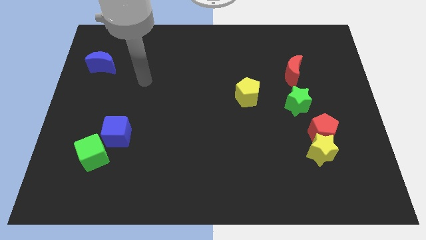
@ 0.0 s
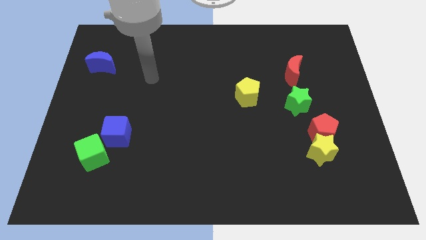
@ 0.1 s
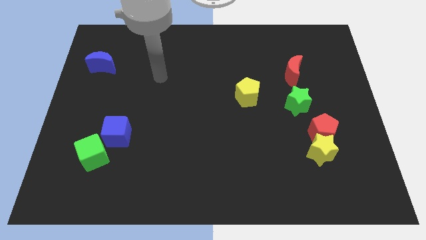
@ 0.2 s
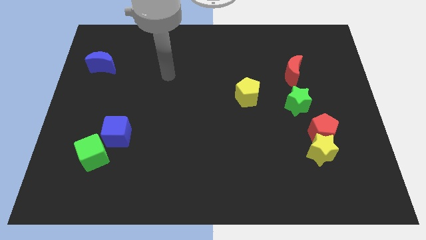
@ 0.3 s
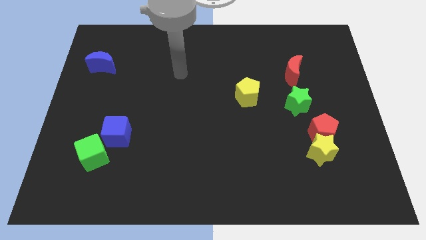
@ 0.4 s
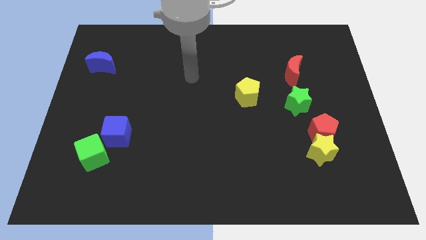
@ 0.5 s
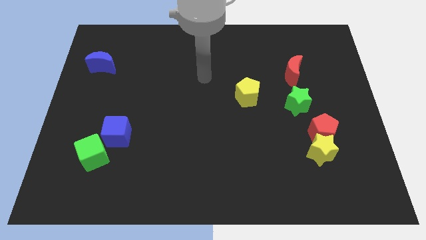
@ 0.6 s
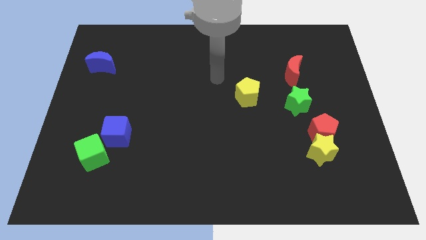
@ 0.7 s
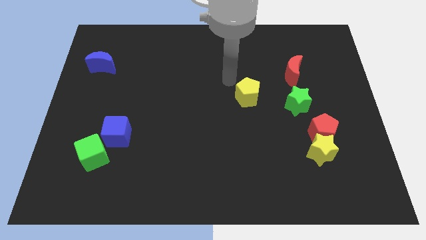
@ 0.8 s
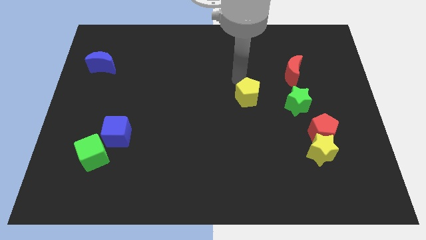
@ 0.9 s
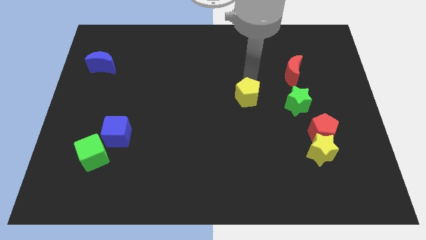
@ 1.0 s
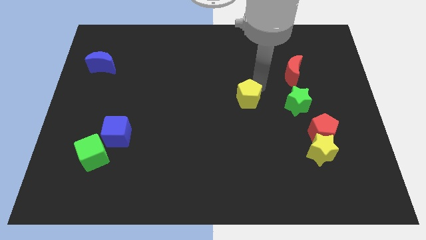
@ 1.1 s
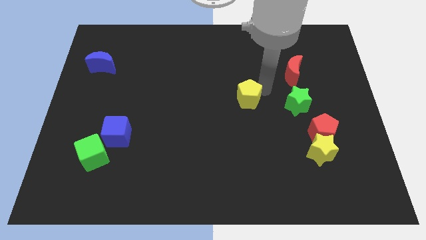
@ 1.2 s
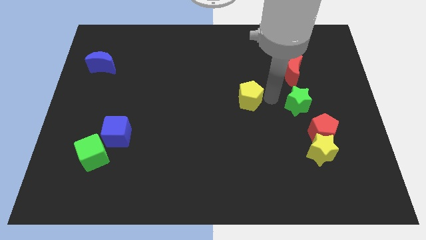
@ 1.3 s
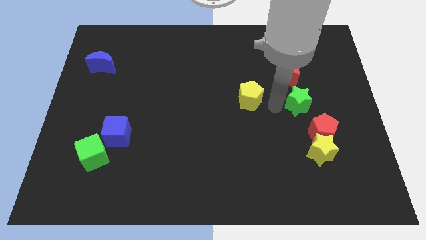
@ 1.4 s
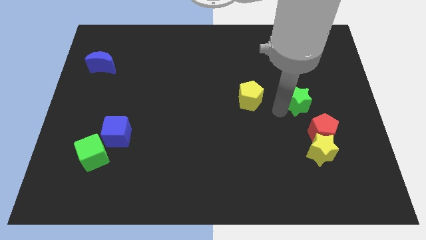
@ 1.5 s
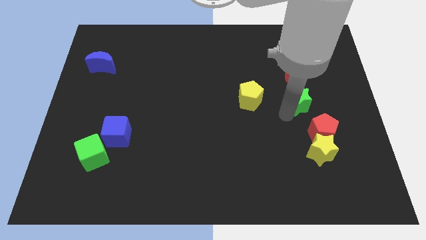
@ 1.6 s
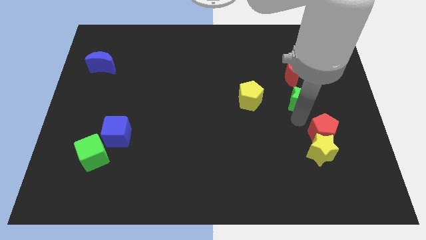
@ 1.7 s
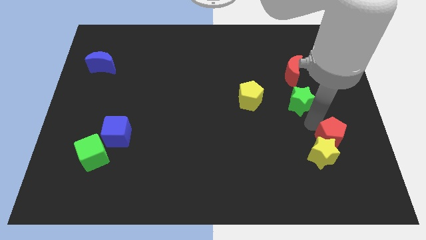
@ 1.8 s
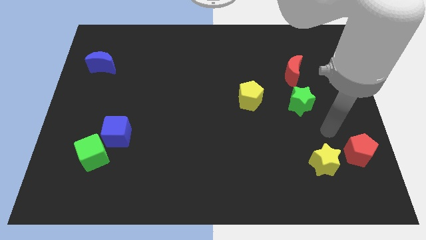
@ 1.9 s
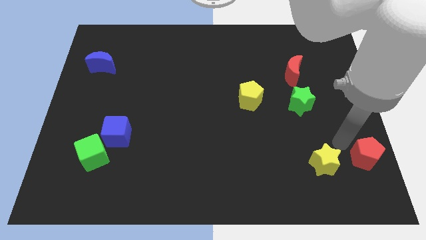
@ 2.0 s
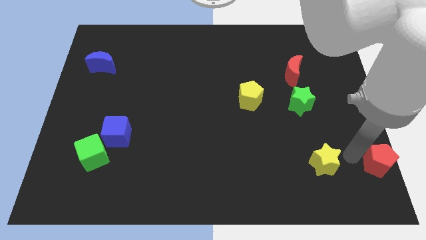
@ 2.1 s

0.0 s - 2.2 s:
move the yellow star away from the red pentagon

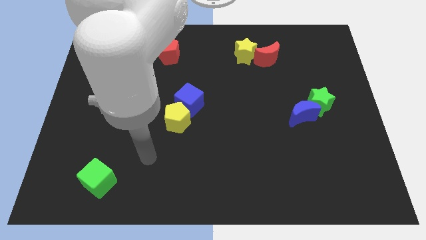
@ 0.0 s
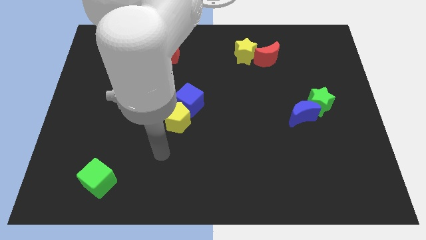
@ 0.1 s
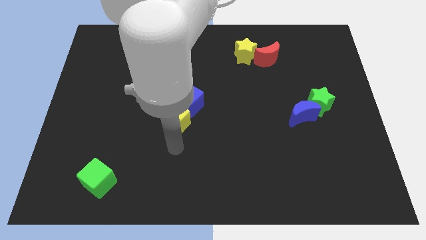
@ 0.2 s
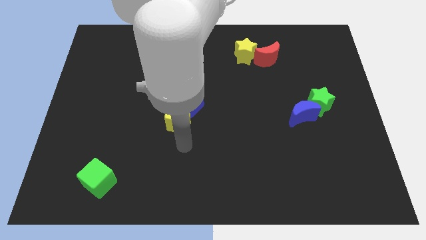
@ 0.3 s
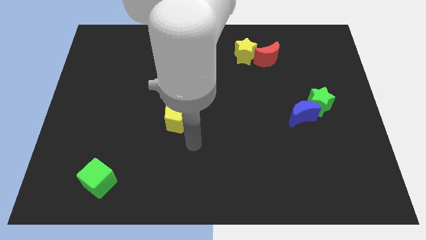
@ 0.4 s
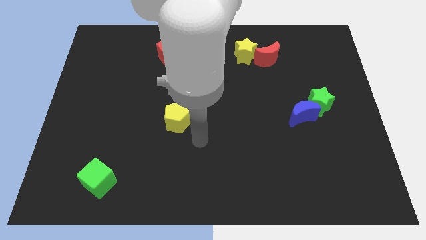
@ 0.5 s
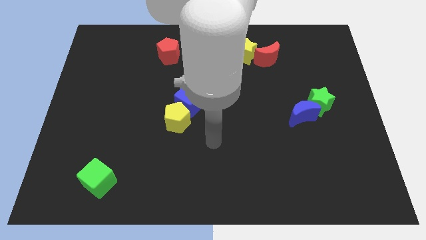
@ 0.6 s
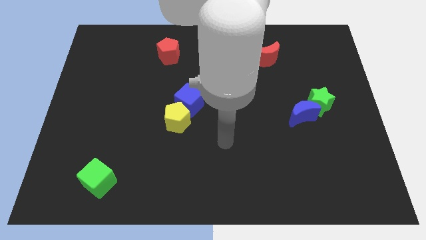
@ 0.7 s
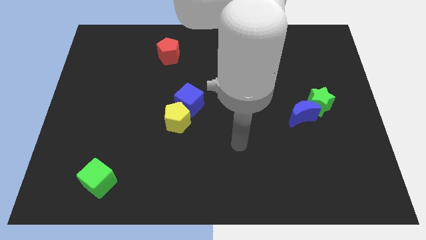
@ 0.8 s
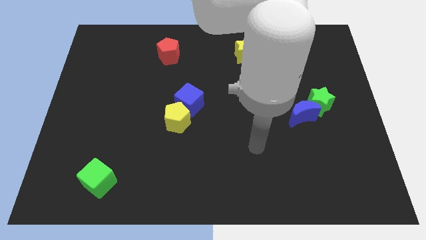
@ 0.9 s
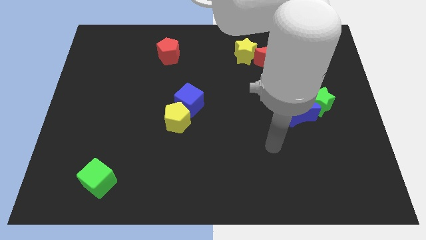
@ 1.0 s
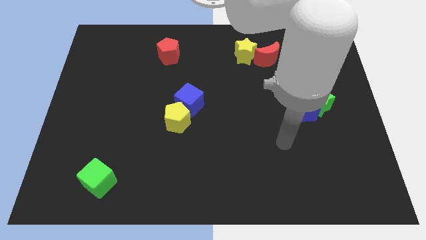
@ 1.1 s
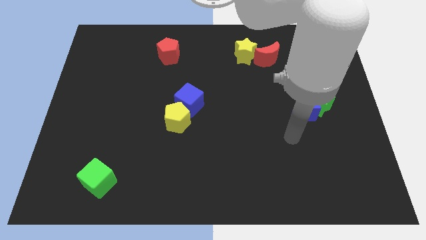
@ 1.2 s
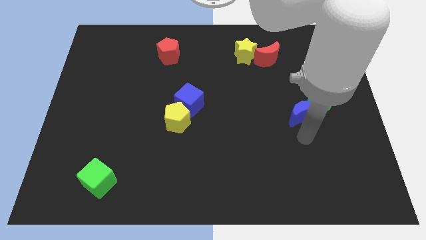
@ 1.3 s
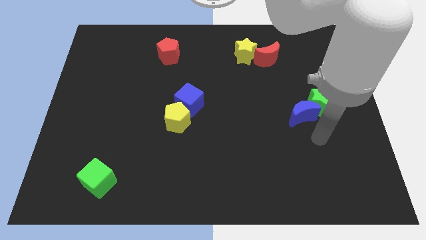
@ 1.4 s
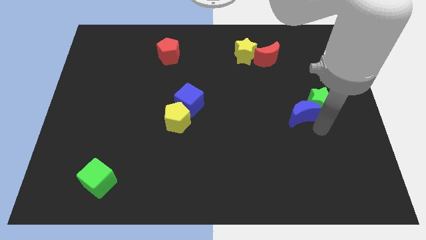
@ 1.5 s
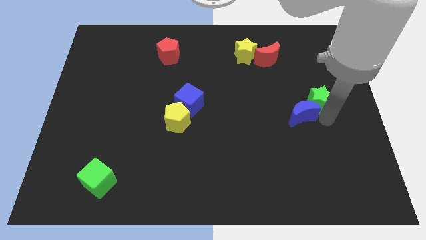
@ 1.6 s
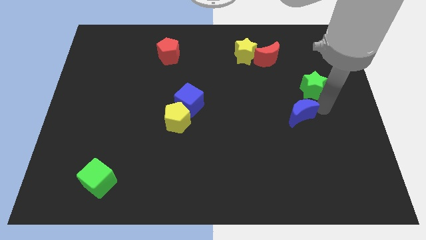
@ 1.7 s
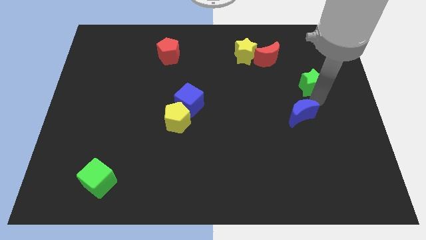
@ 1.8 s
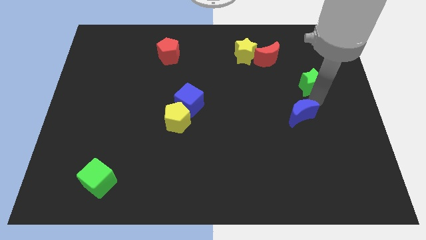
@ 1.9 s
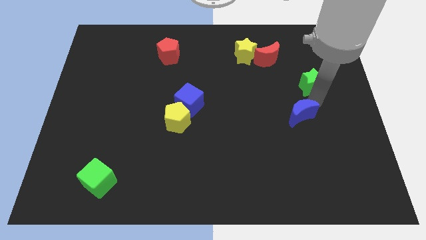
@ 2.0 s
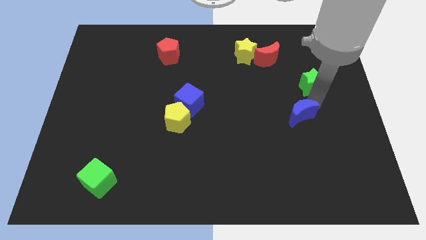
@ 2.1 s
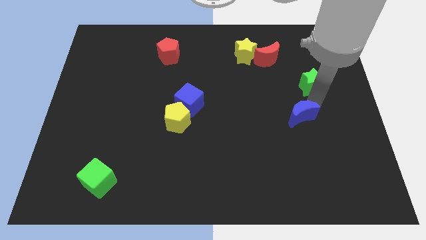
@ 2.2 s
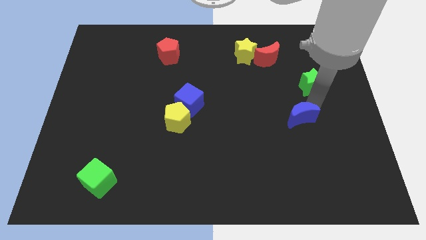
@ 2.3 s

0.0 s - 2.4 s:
separate the blue moon from the green star

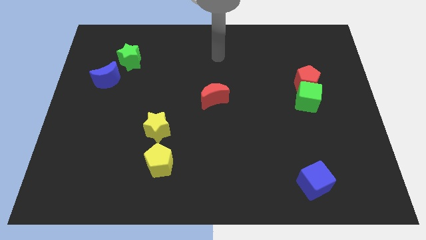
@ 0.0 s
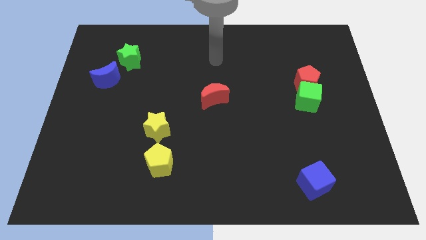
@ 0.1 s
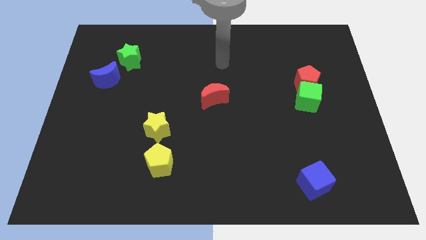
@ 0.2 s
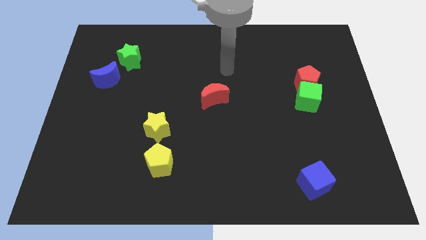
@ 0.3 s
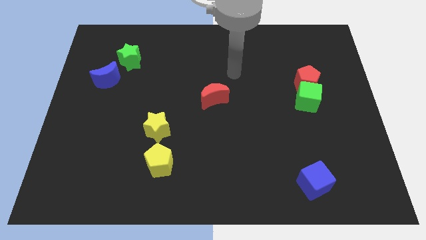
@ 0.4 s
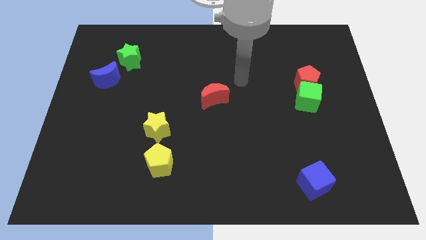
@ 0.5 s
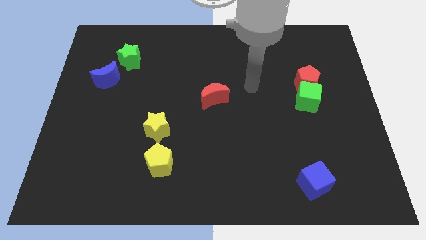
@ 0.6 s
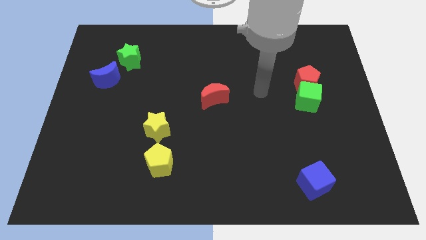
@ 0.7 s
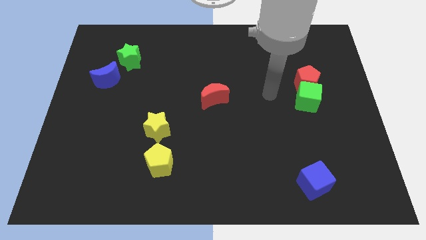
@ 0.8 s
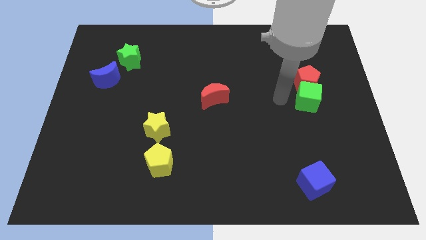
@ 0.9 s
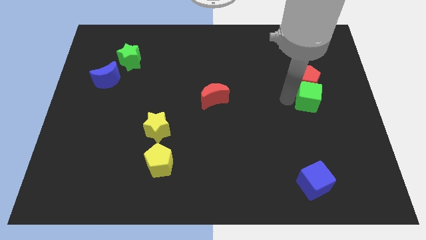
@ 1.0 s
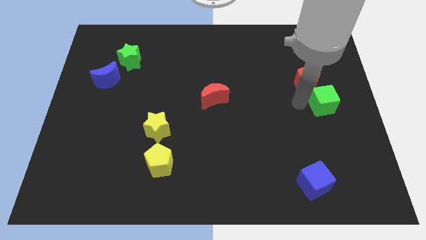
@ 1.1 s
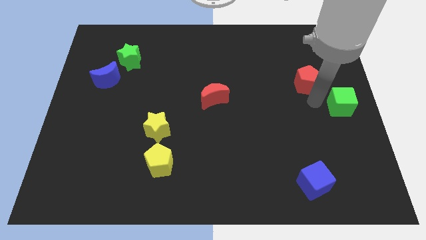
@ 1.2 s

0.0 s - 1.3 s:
pull the red pentagon apart from the green cube

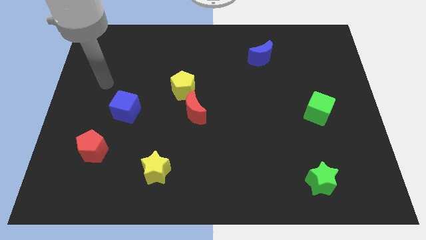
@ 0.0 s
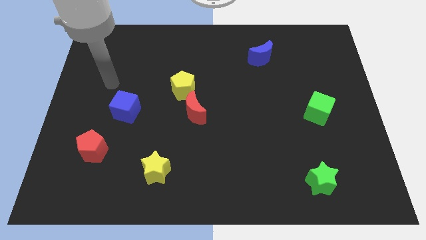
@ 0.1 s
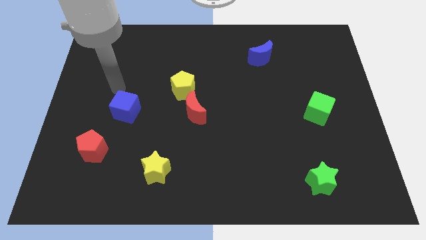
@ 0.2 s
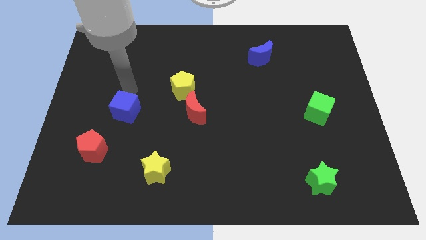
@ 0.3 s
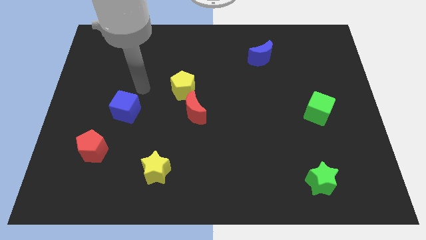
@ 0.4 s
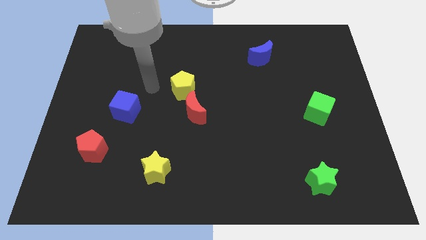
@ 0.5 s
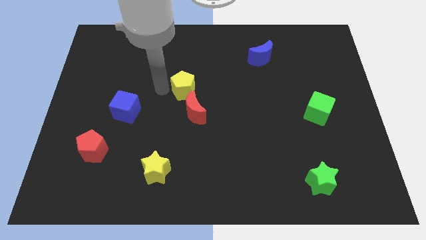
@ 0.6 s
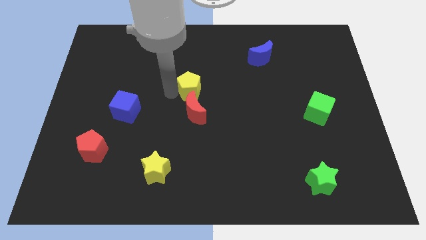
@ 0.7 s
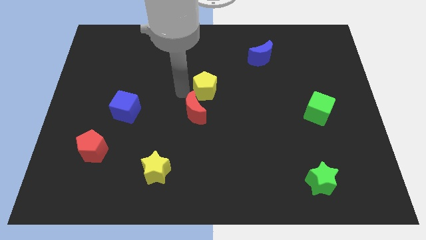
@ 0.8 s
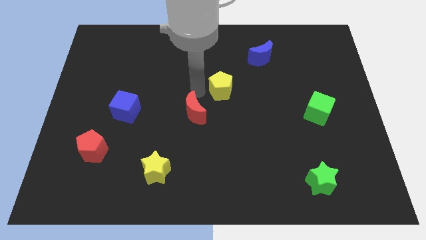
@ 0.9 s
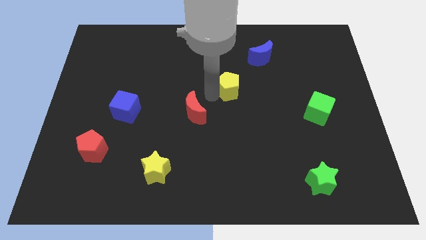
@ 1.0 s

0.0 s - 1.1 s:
move the red moon away from the yellow pentagon

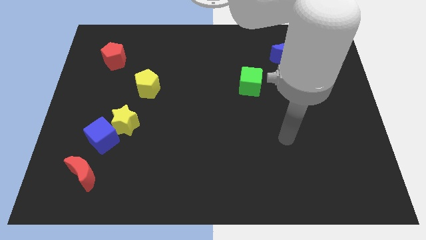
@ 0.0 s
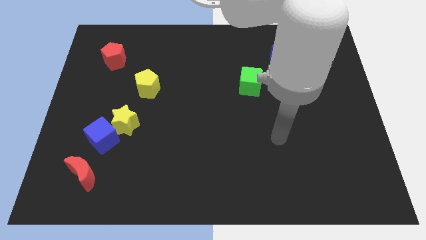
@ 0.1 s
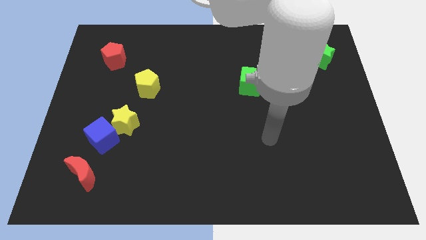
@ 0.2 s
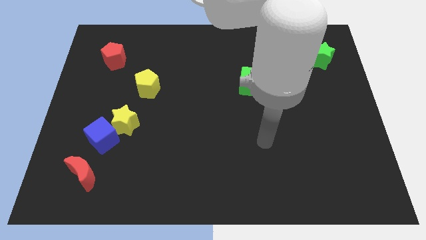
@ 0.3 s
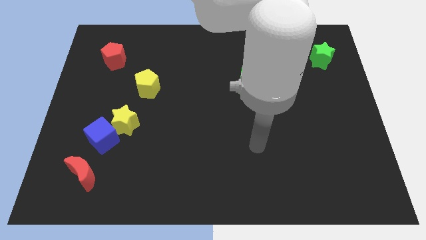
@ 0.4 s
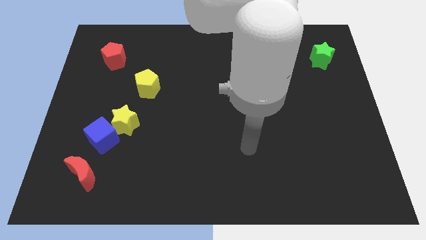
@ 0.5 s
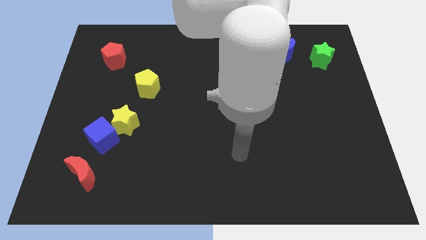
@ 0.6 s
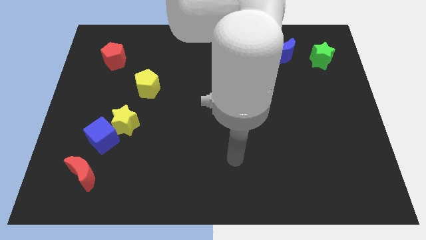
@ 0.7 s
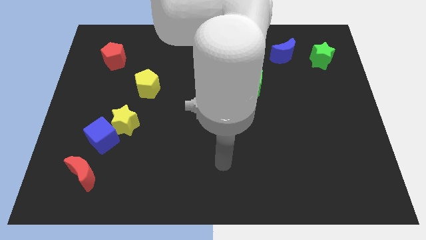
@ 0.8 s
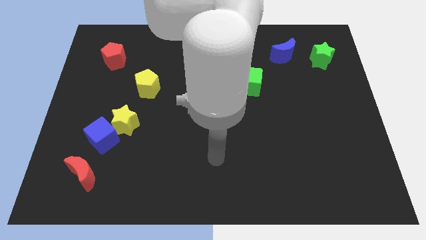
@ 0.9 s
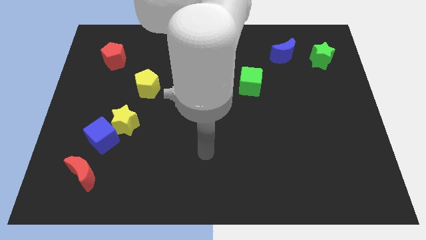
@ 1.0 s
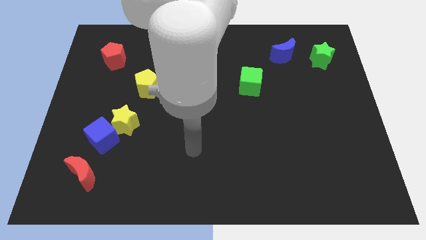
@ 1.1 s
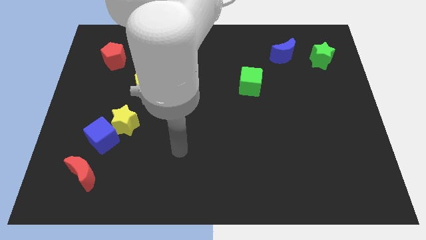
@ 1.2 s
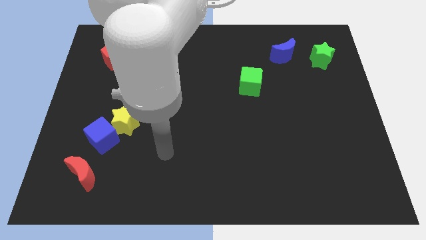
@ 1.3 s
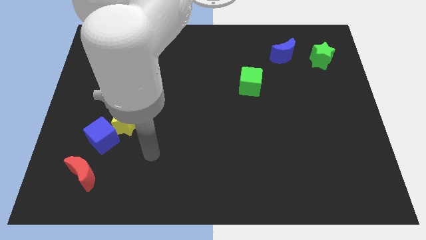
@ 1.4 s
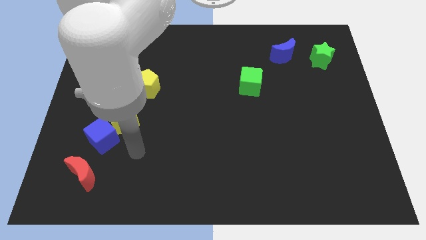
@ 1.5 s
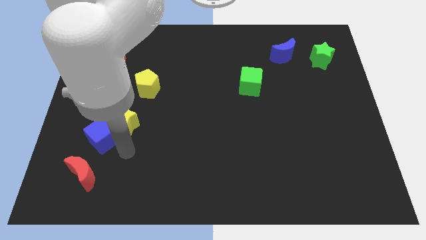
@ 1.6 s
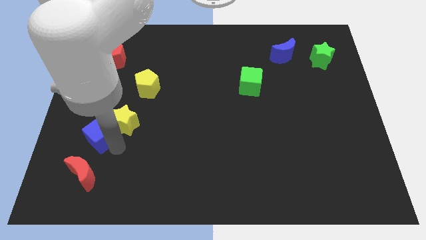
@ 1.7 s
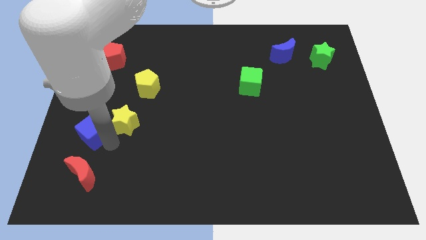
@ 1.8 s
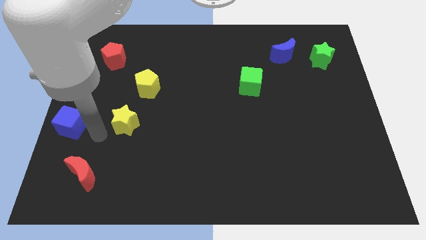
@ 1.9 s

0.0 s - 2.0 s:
pull the yellow star apart from the blue cube

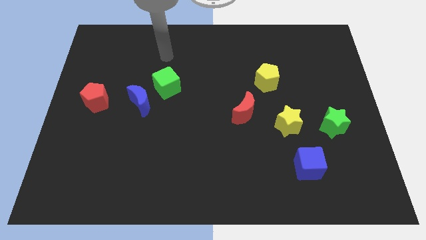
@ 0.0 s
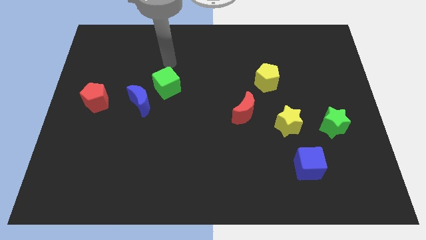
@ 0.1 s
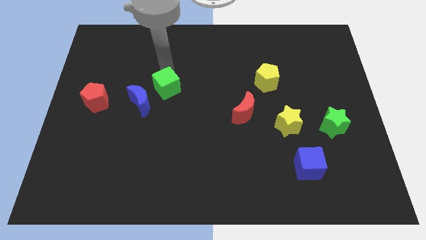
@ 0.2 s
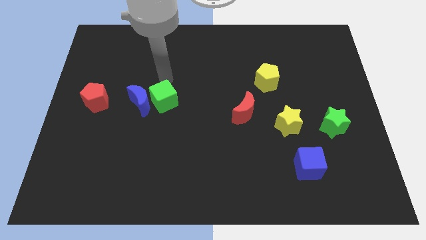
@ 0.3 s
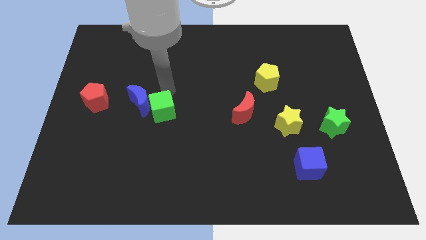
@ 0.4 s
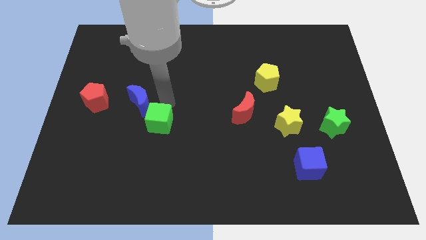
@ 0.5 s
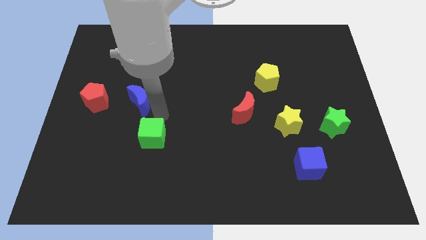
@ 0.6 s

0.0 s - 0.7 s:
pull the blue moon apart from the green cube
